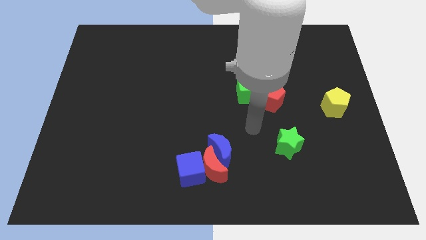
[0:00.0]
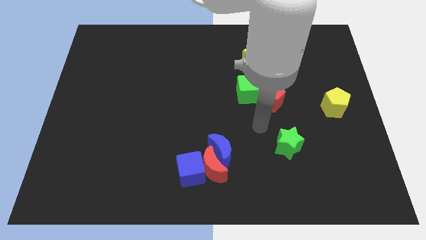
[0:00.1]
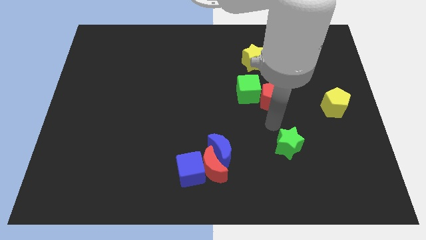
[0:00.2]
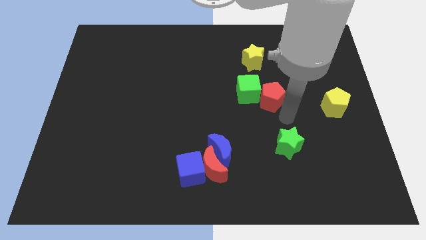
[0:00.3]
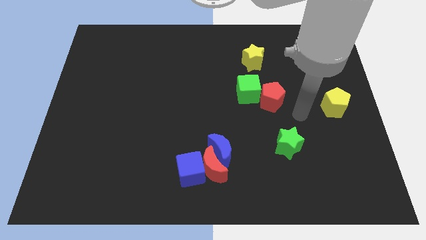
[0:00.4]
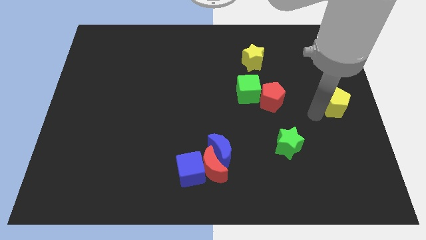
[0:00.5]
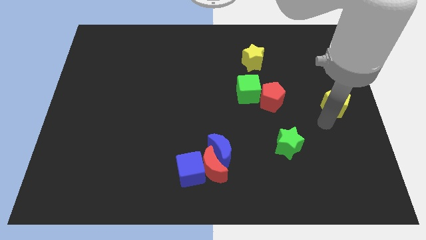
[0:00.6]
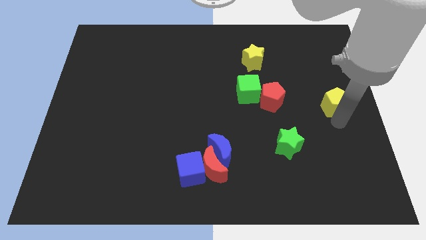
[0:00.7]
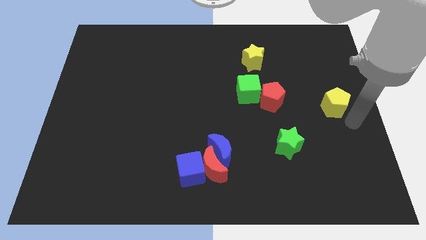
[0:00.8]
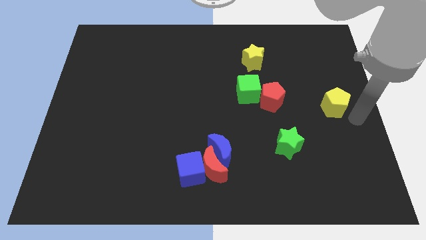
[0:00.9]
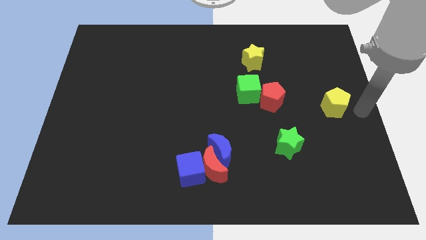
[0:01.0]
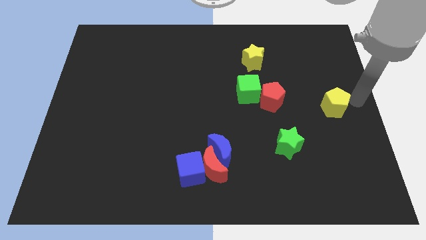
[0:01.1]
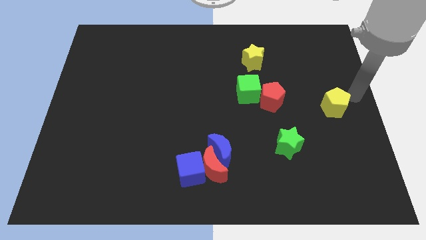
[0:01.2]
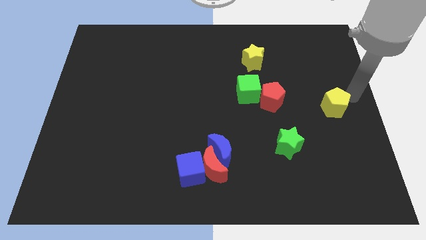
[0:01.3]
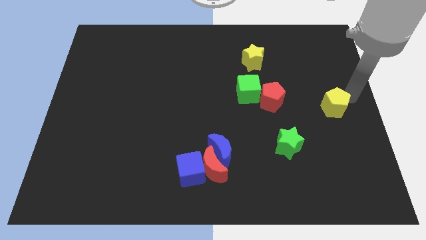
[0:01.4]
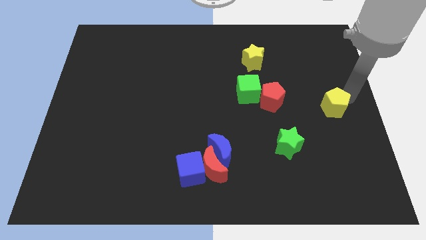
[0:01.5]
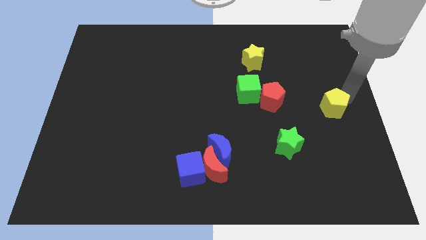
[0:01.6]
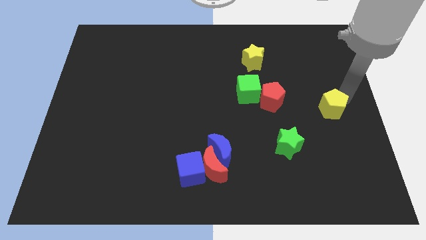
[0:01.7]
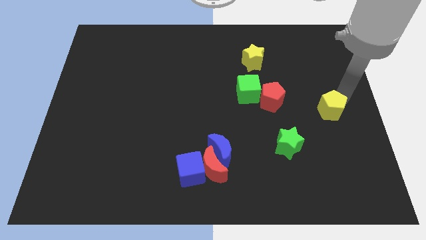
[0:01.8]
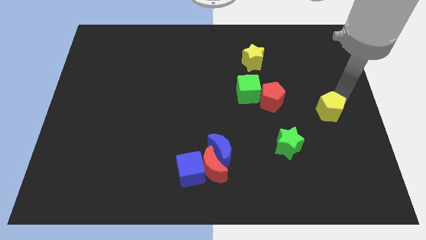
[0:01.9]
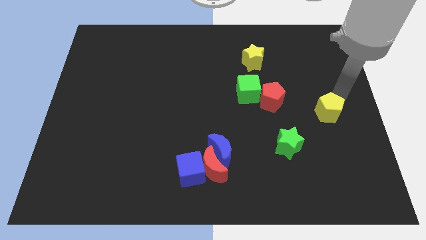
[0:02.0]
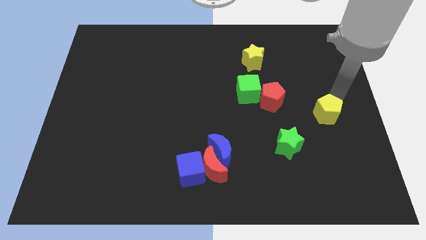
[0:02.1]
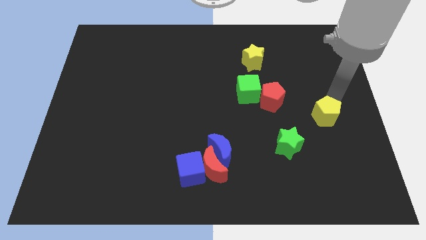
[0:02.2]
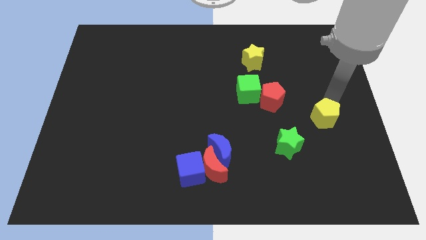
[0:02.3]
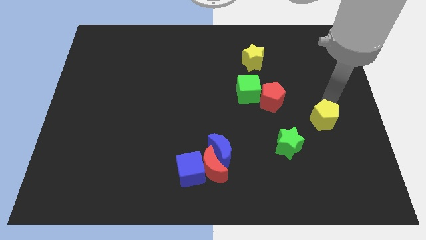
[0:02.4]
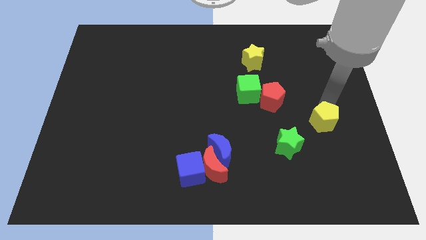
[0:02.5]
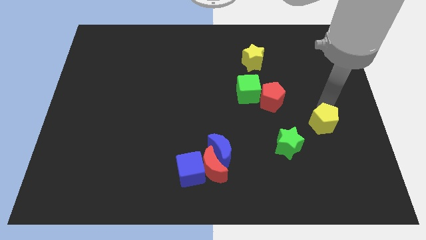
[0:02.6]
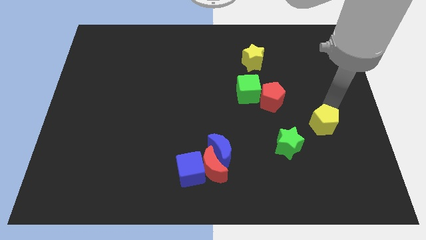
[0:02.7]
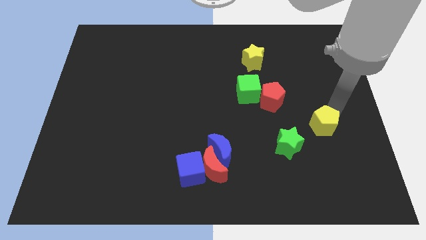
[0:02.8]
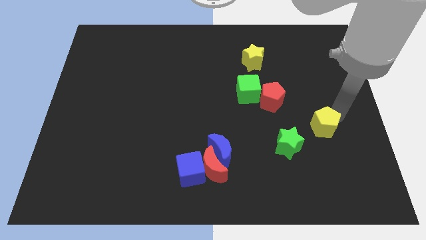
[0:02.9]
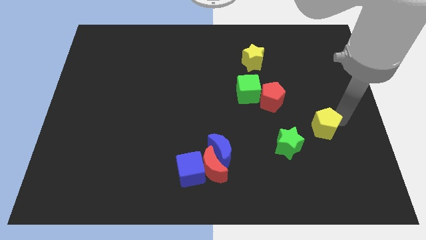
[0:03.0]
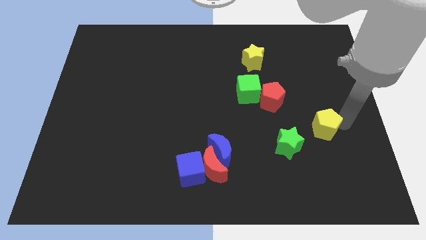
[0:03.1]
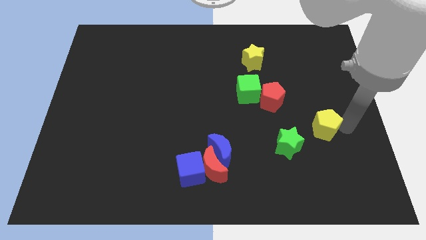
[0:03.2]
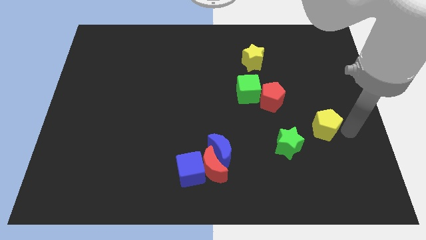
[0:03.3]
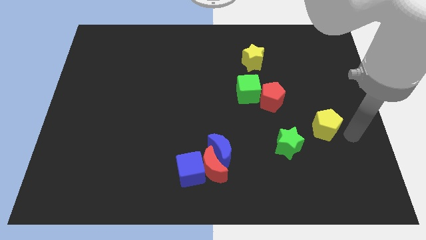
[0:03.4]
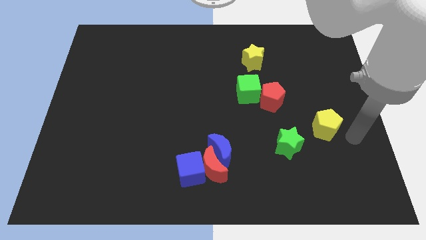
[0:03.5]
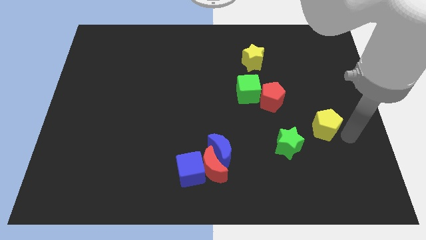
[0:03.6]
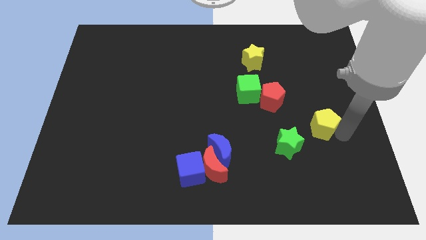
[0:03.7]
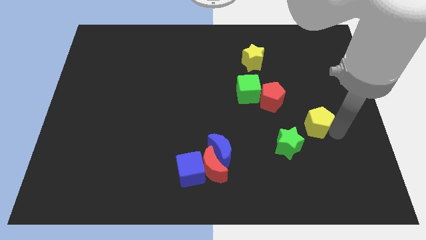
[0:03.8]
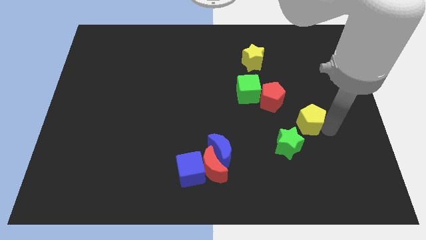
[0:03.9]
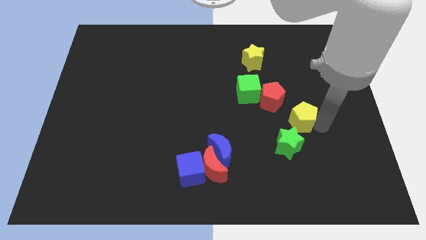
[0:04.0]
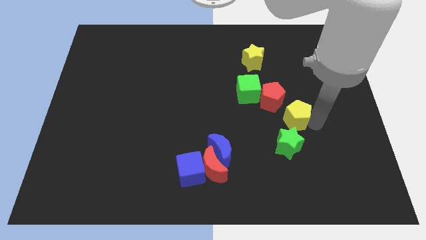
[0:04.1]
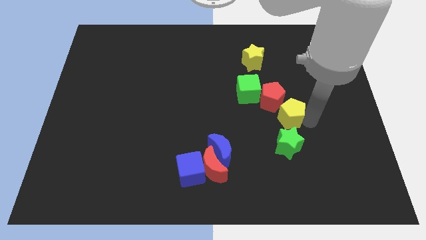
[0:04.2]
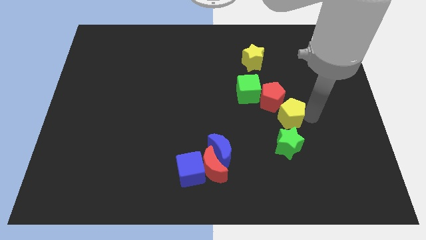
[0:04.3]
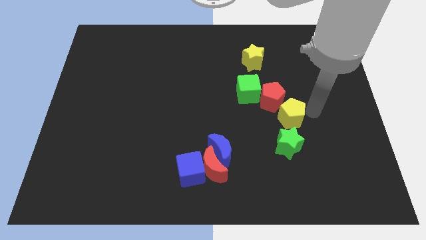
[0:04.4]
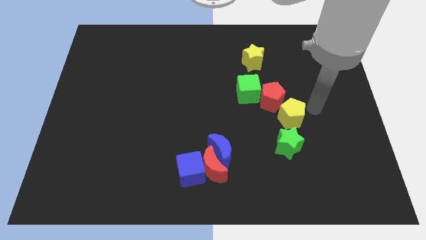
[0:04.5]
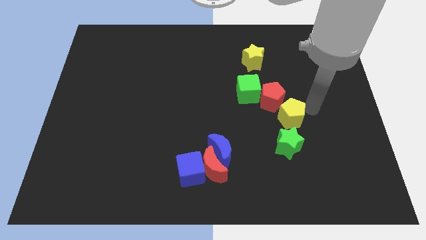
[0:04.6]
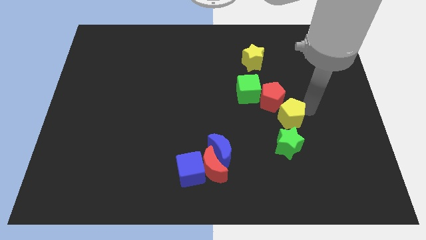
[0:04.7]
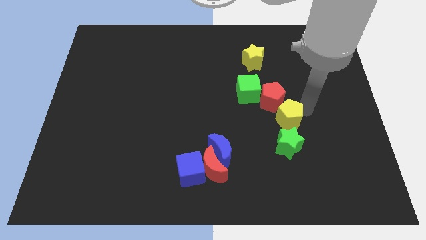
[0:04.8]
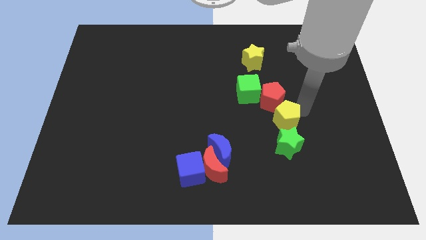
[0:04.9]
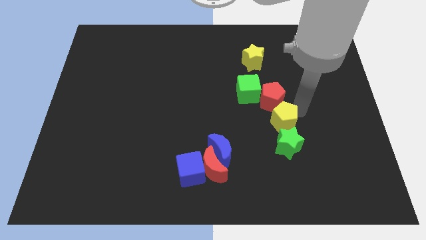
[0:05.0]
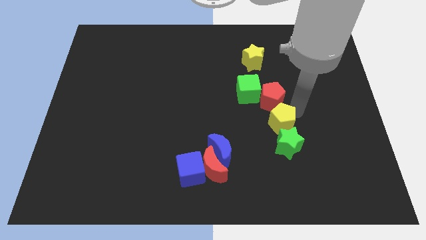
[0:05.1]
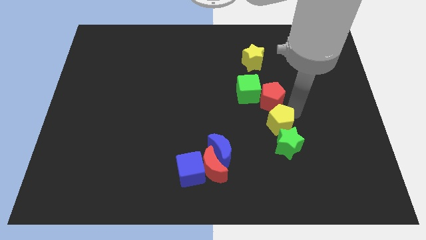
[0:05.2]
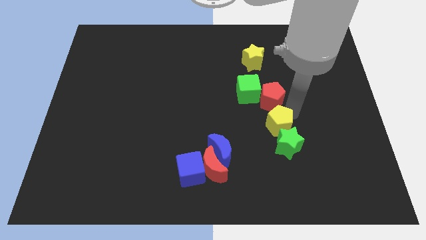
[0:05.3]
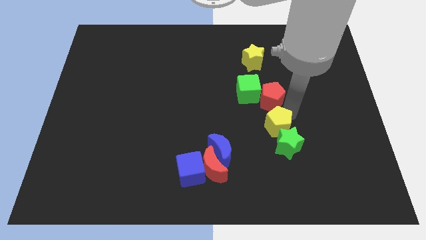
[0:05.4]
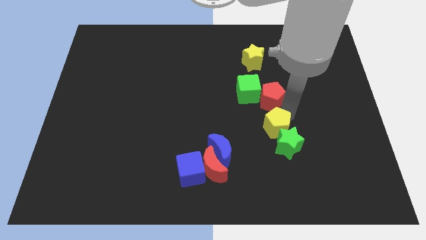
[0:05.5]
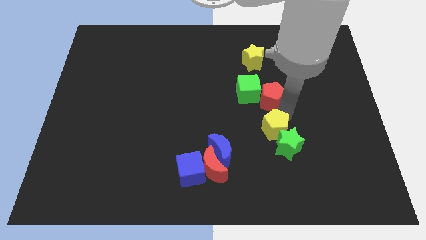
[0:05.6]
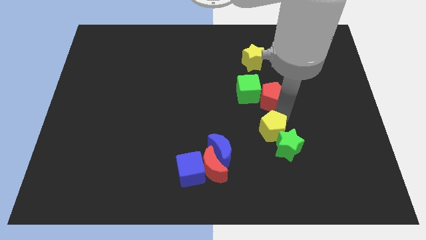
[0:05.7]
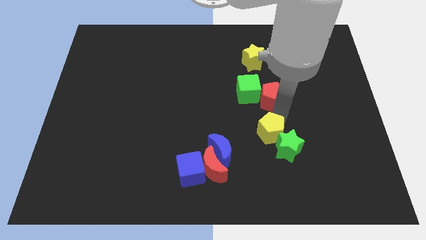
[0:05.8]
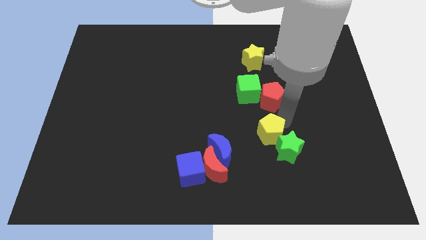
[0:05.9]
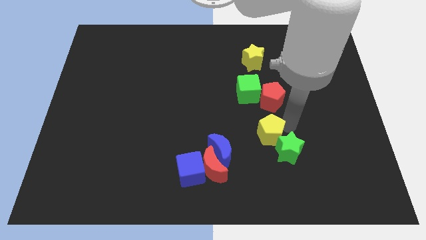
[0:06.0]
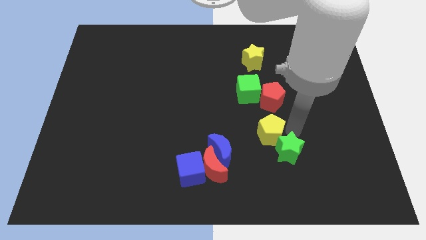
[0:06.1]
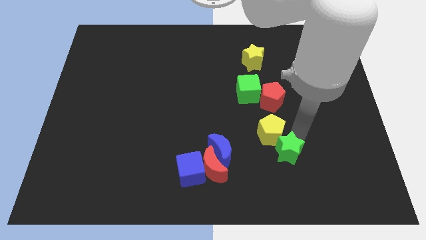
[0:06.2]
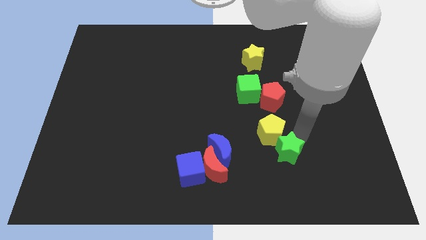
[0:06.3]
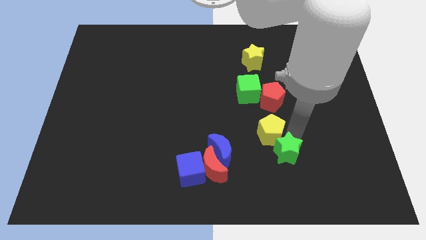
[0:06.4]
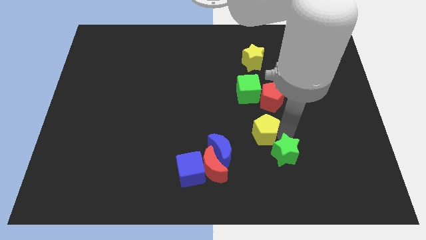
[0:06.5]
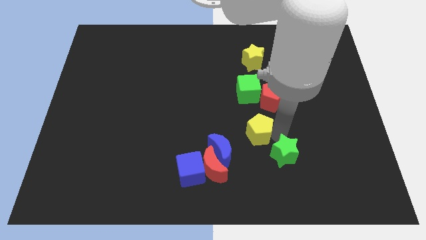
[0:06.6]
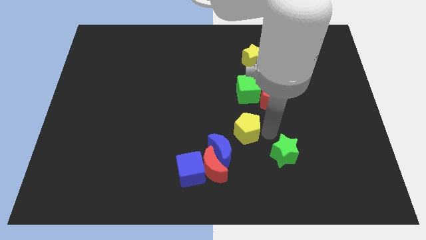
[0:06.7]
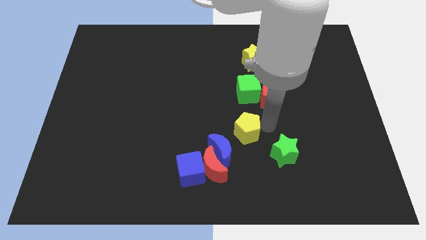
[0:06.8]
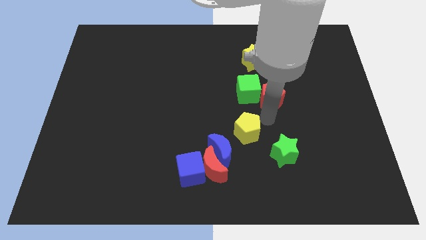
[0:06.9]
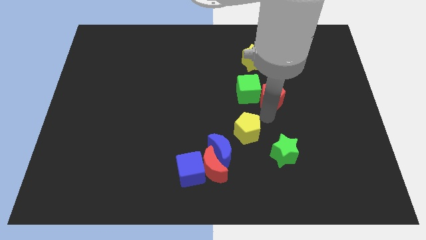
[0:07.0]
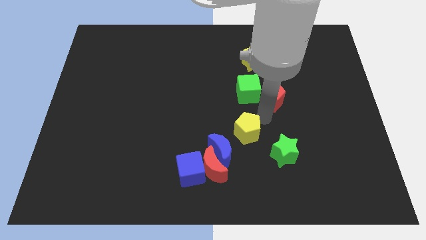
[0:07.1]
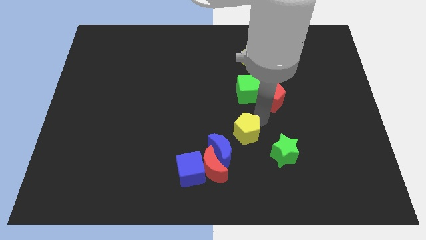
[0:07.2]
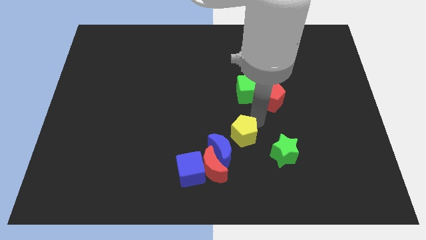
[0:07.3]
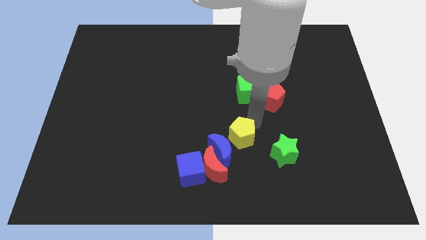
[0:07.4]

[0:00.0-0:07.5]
push the yellow pentagon to the blue moon
